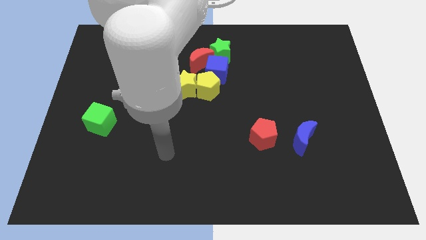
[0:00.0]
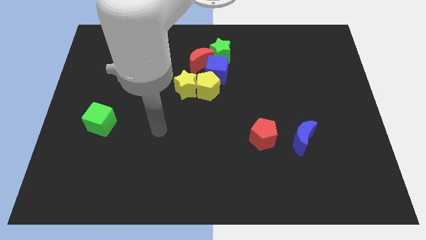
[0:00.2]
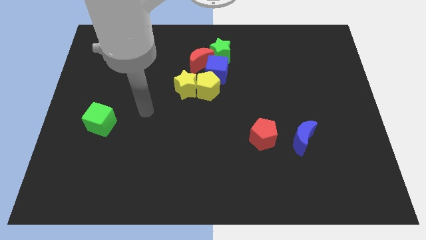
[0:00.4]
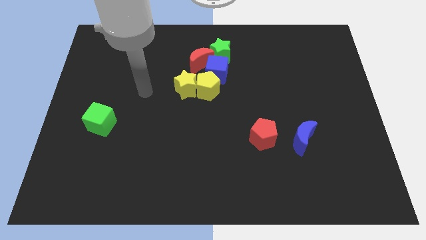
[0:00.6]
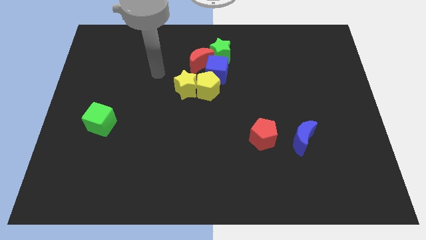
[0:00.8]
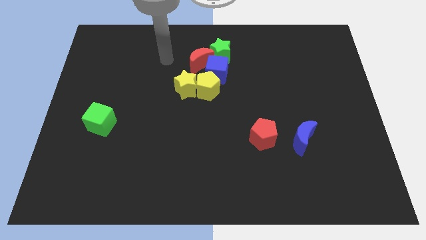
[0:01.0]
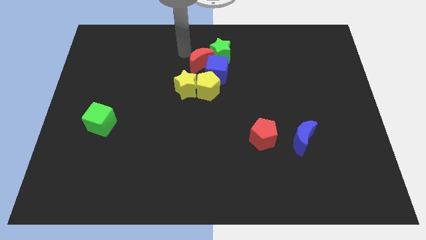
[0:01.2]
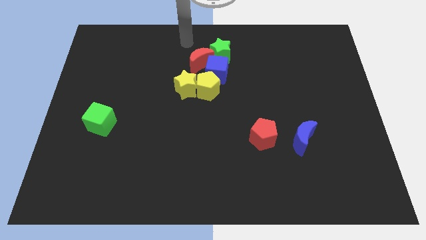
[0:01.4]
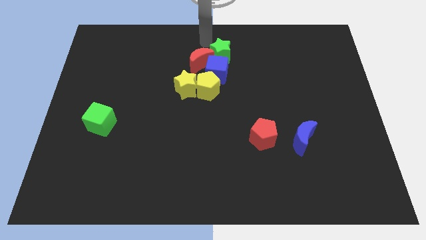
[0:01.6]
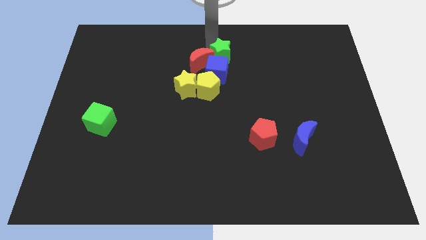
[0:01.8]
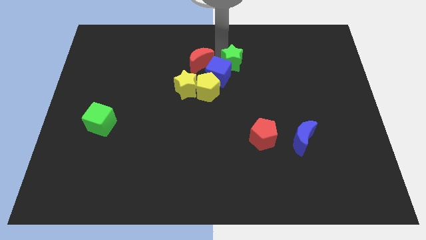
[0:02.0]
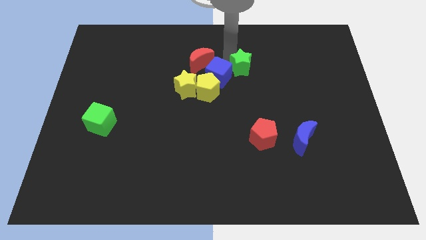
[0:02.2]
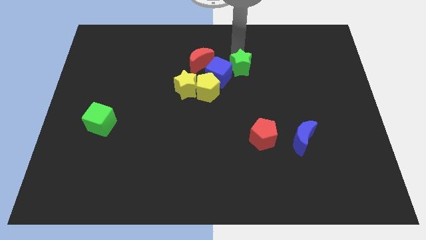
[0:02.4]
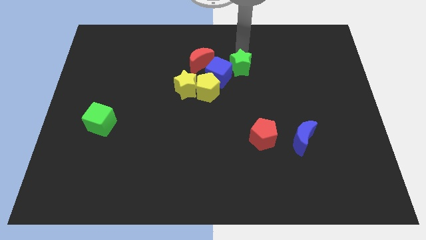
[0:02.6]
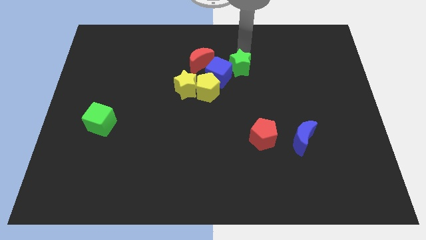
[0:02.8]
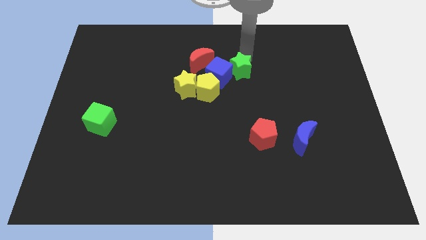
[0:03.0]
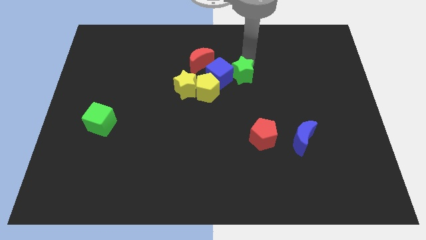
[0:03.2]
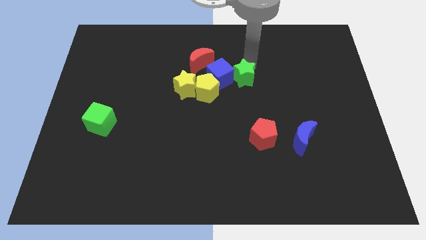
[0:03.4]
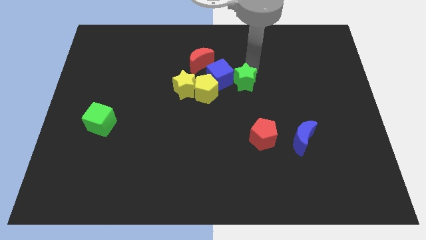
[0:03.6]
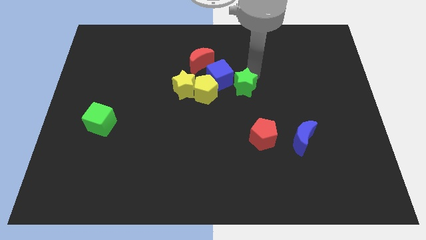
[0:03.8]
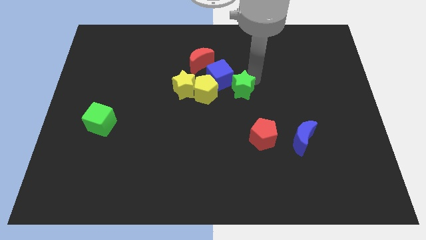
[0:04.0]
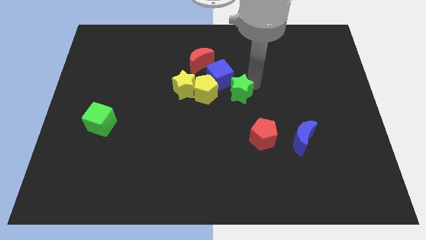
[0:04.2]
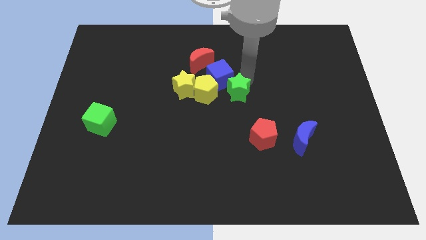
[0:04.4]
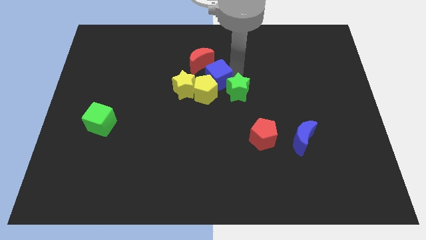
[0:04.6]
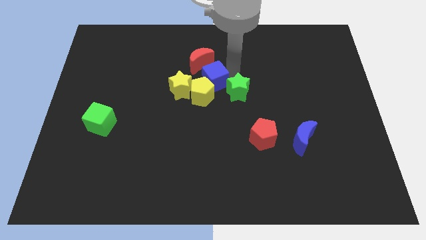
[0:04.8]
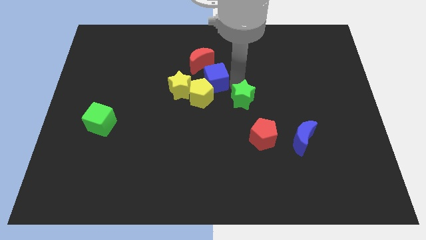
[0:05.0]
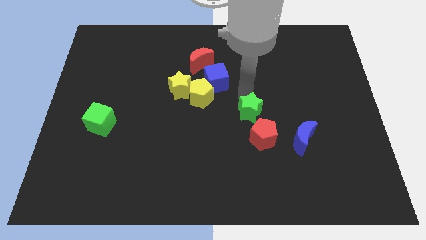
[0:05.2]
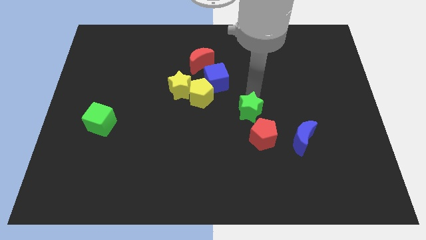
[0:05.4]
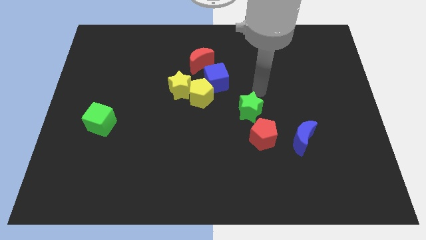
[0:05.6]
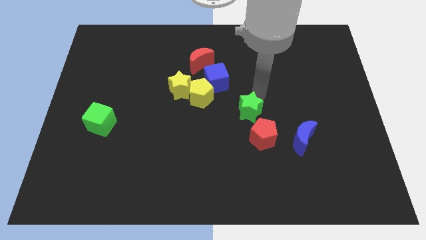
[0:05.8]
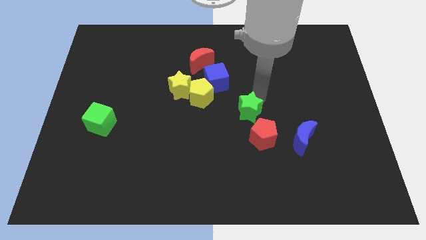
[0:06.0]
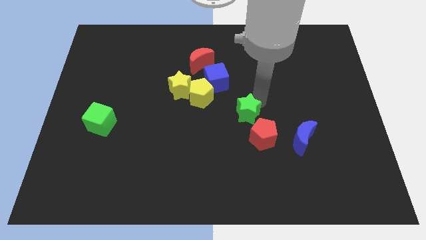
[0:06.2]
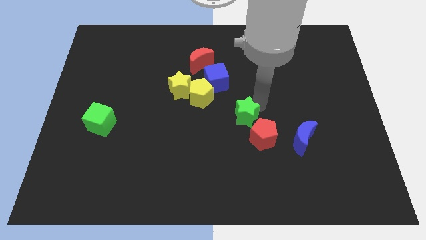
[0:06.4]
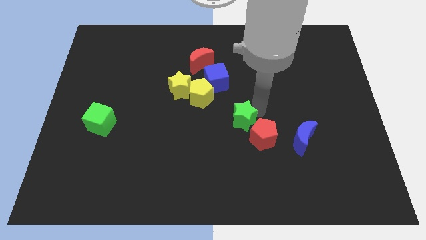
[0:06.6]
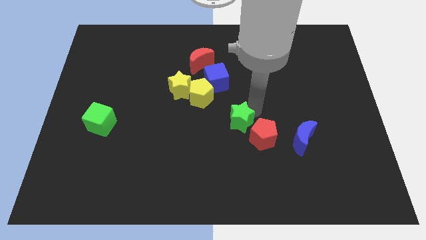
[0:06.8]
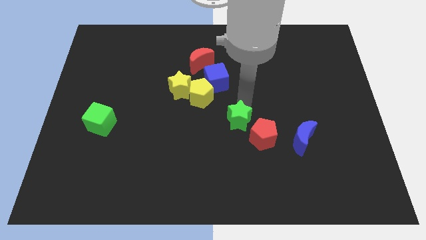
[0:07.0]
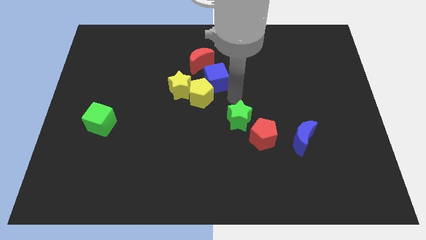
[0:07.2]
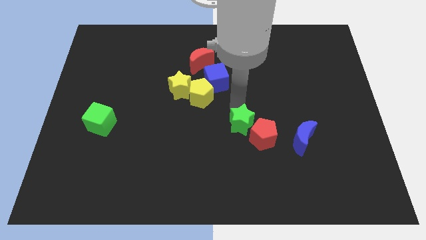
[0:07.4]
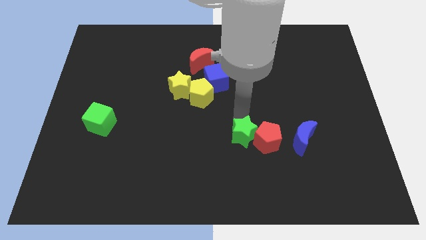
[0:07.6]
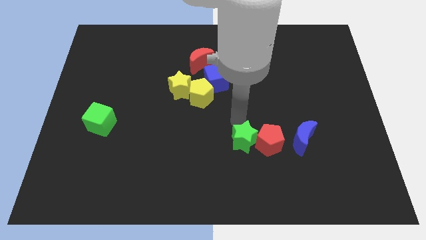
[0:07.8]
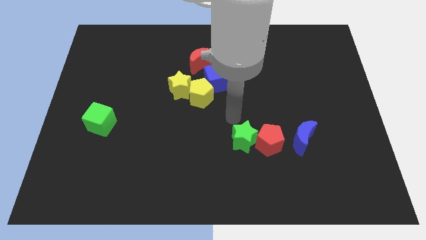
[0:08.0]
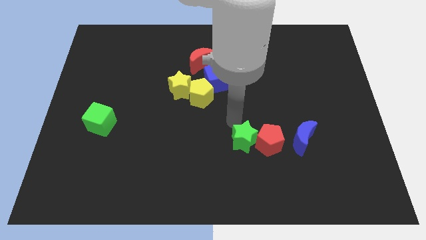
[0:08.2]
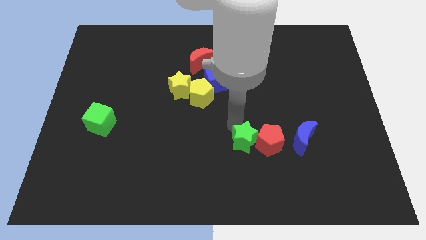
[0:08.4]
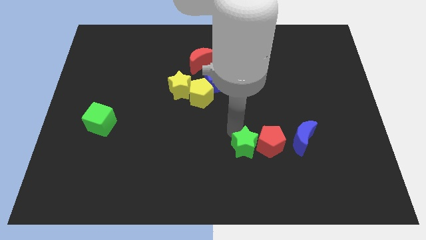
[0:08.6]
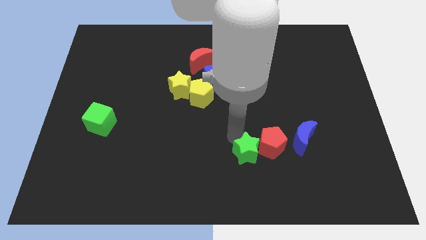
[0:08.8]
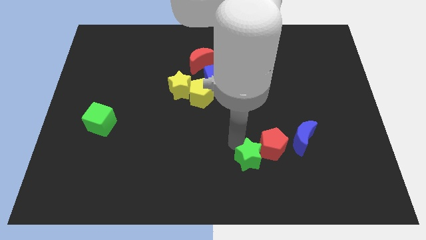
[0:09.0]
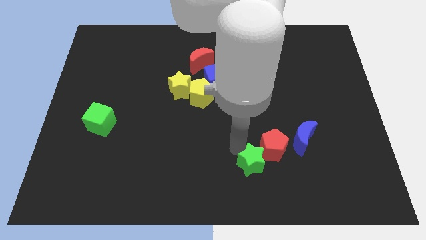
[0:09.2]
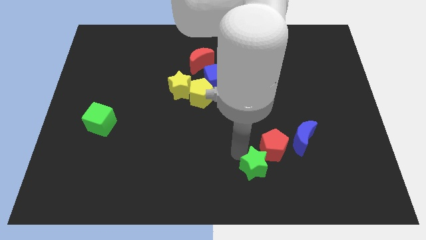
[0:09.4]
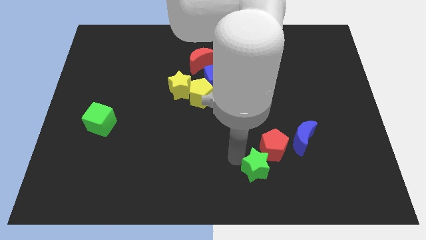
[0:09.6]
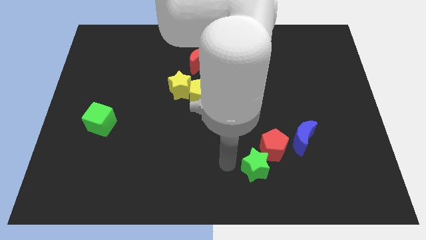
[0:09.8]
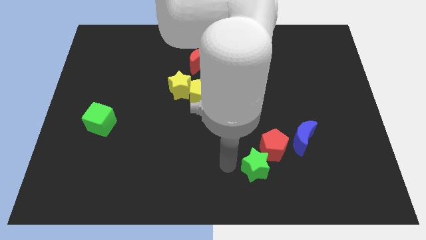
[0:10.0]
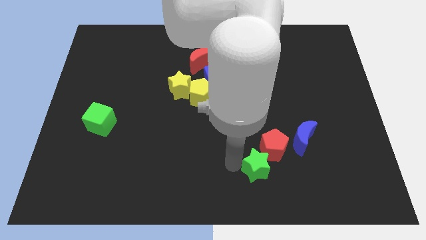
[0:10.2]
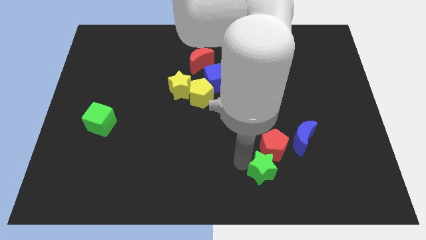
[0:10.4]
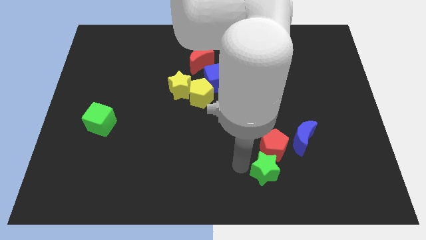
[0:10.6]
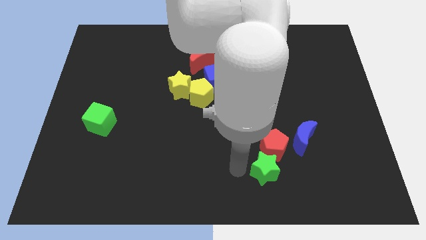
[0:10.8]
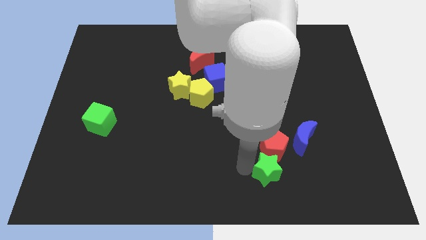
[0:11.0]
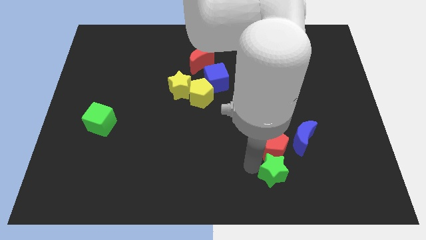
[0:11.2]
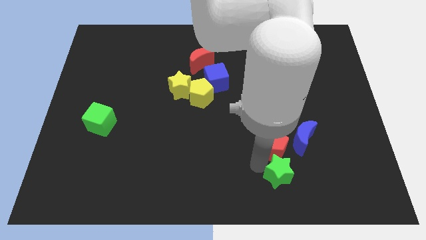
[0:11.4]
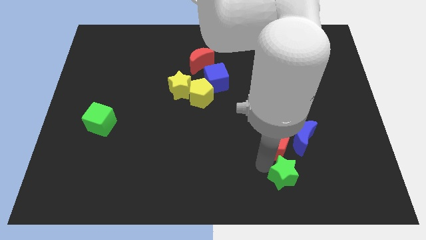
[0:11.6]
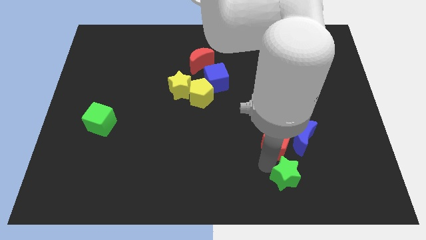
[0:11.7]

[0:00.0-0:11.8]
slide the green star below the blue moon
